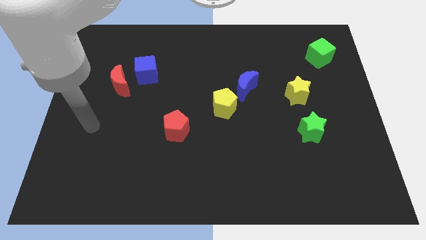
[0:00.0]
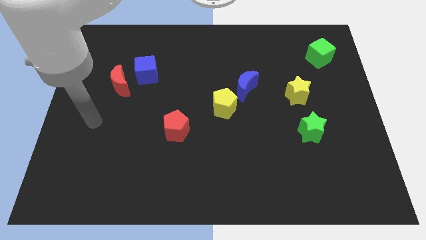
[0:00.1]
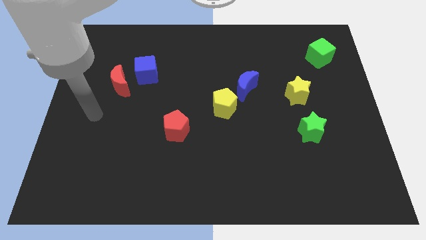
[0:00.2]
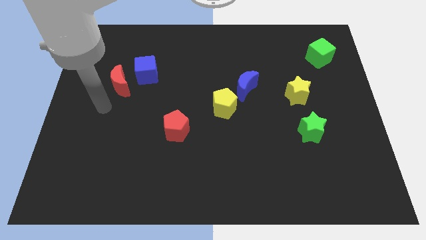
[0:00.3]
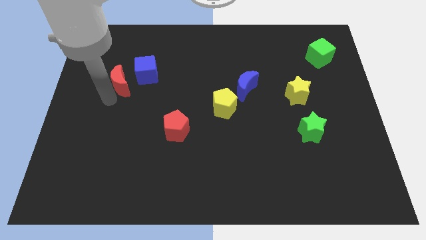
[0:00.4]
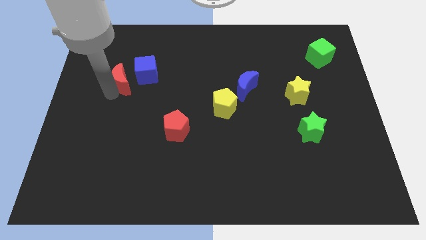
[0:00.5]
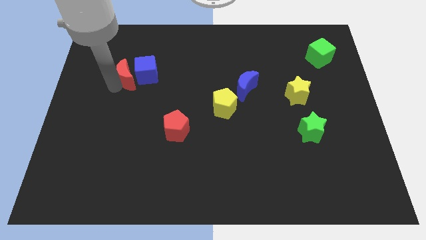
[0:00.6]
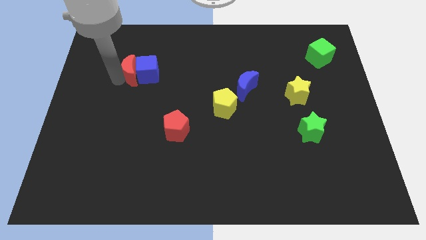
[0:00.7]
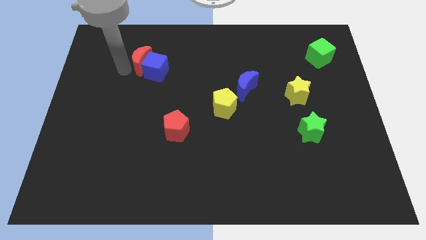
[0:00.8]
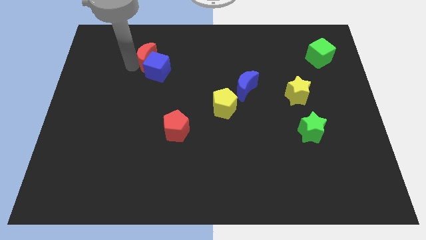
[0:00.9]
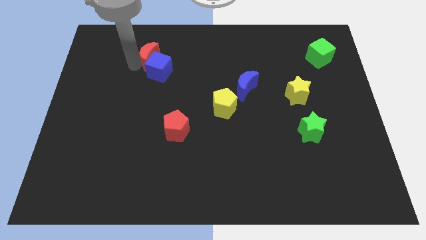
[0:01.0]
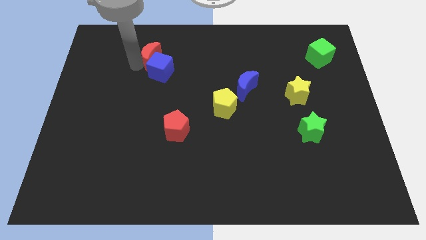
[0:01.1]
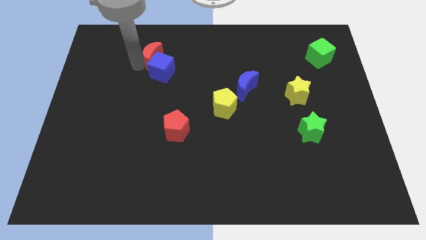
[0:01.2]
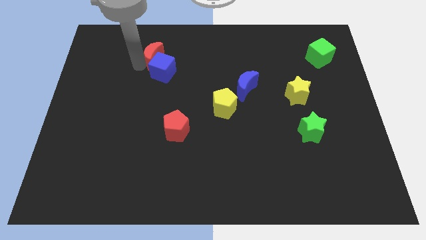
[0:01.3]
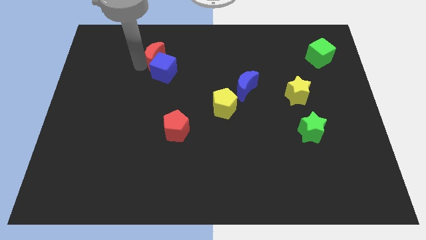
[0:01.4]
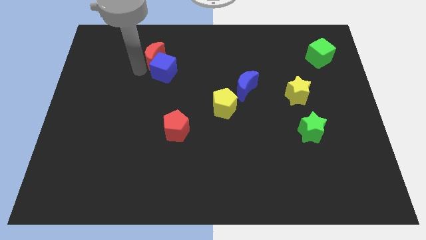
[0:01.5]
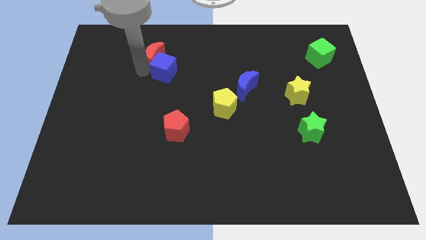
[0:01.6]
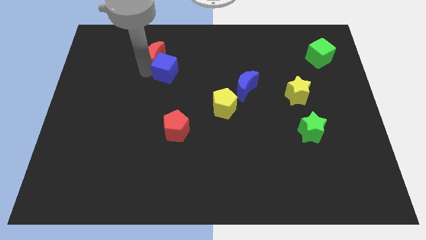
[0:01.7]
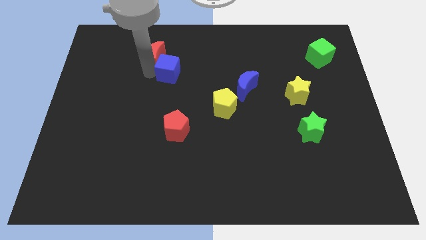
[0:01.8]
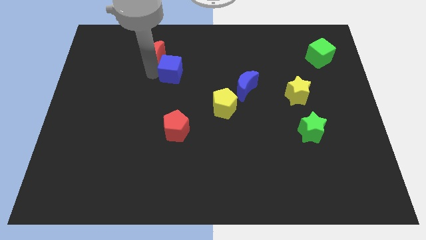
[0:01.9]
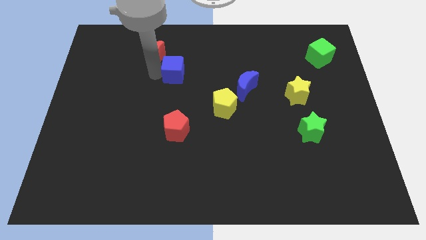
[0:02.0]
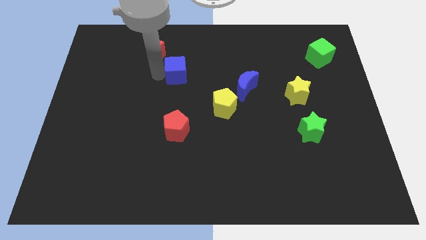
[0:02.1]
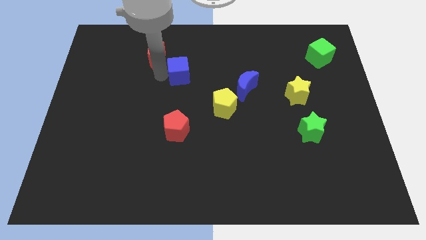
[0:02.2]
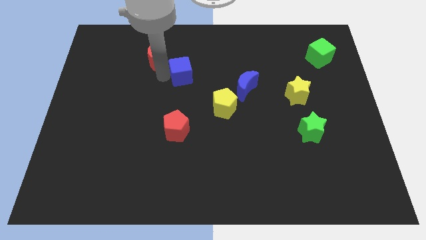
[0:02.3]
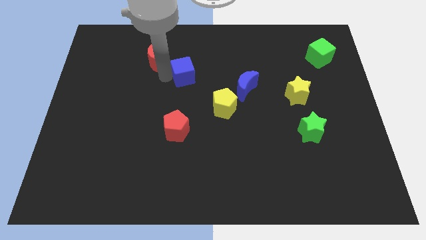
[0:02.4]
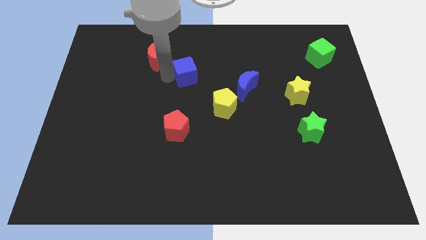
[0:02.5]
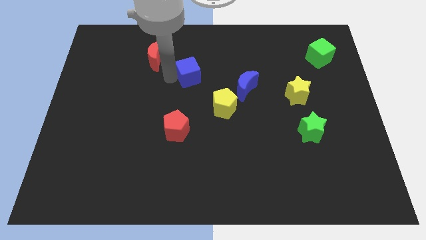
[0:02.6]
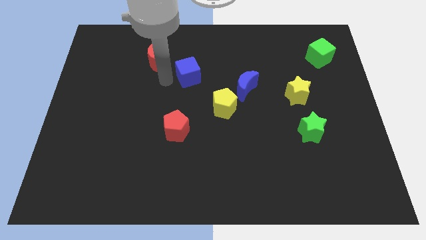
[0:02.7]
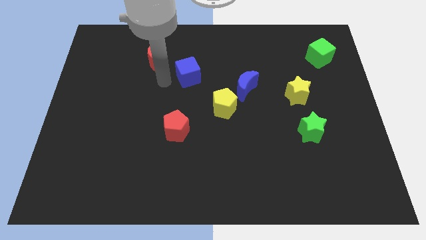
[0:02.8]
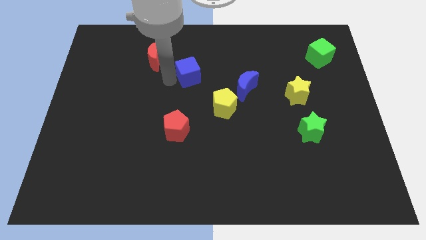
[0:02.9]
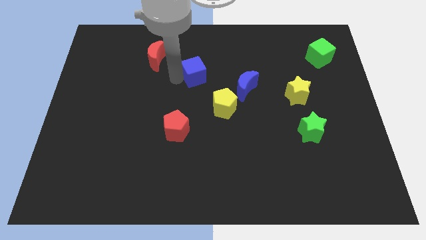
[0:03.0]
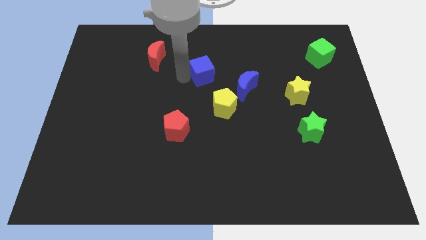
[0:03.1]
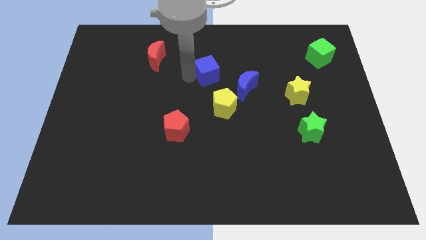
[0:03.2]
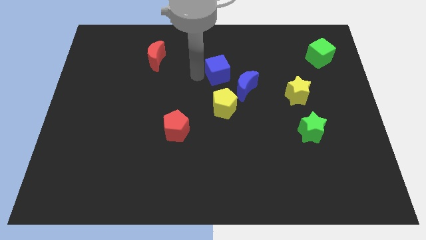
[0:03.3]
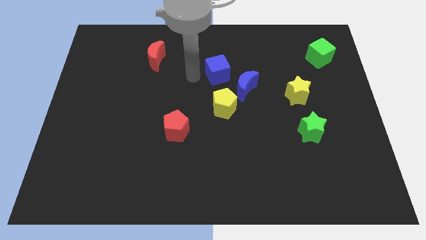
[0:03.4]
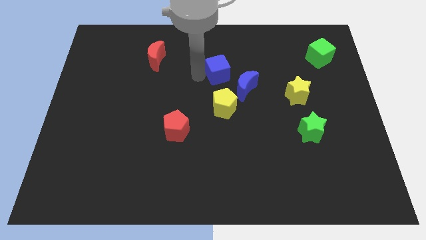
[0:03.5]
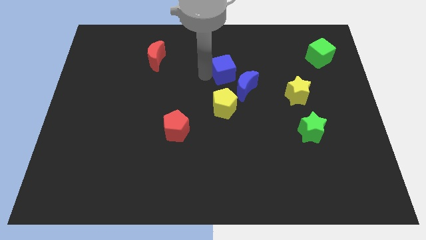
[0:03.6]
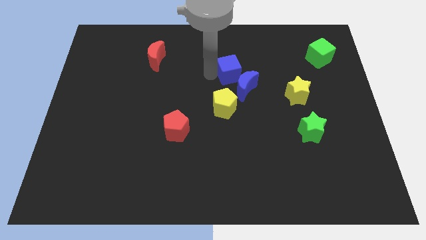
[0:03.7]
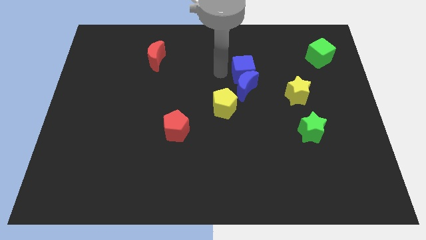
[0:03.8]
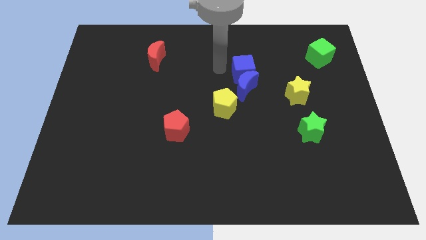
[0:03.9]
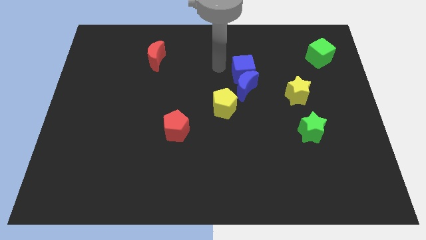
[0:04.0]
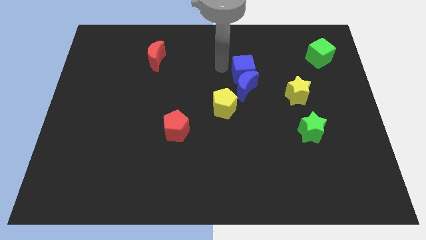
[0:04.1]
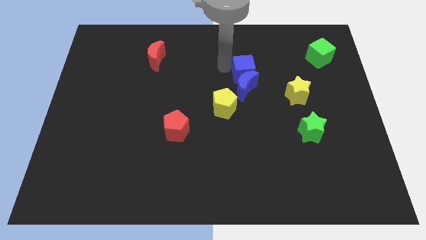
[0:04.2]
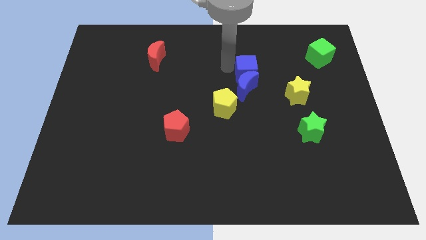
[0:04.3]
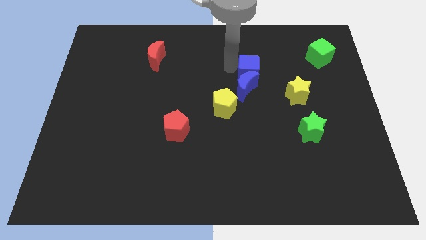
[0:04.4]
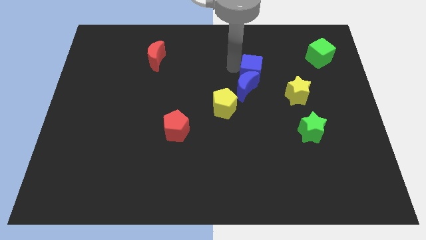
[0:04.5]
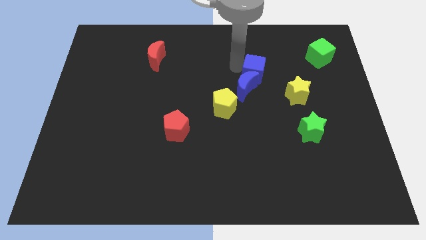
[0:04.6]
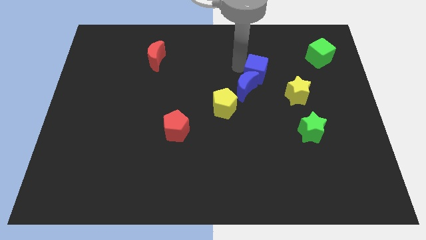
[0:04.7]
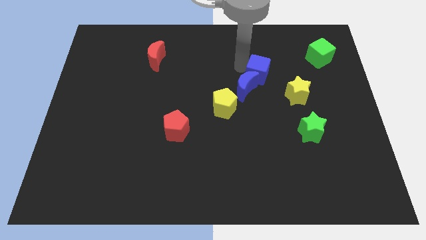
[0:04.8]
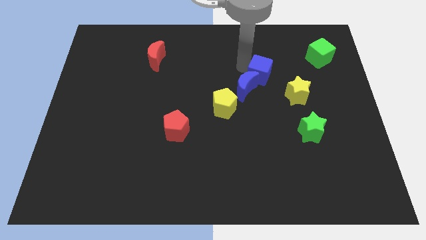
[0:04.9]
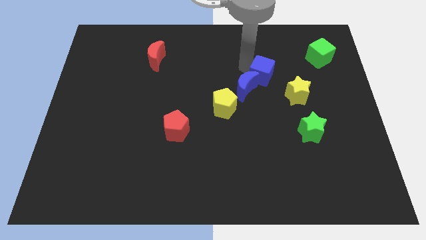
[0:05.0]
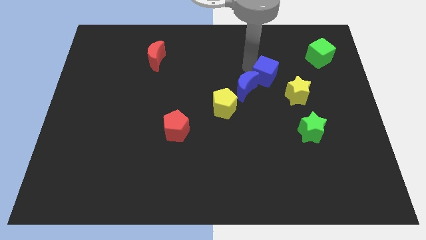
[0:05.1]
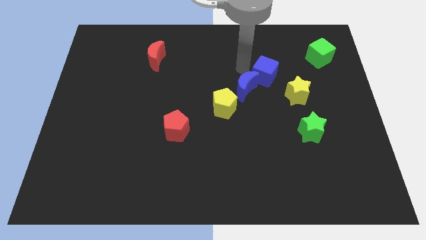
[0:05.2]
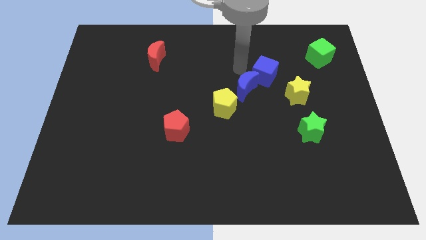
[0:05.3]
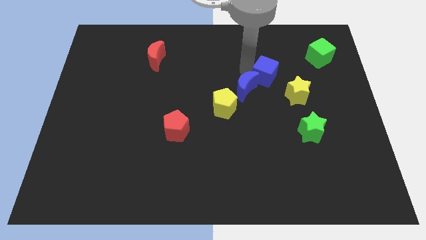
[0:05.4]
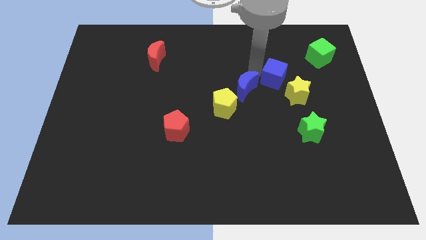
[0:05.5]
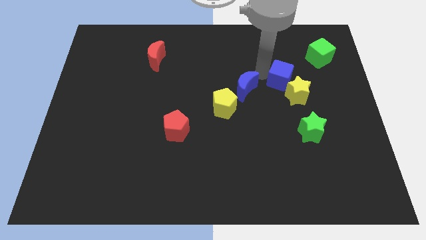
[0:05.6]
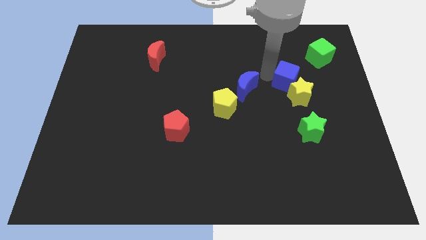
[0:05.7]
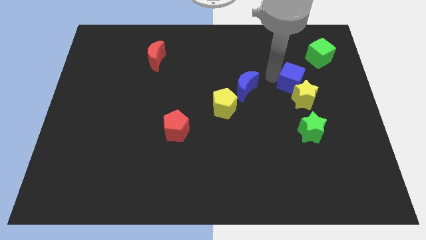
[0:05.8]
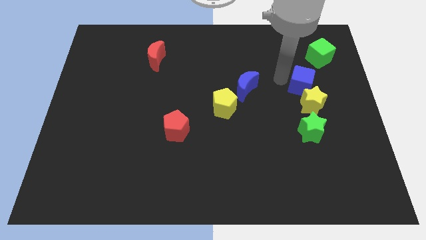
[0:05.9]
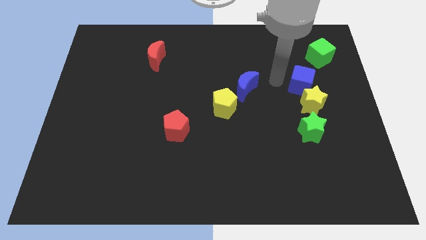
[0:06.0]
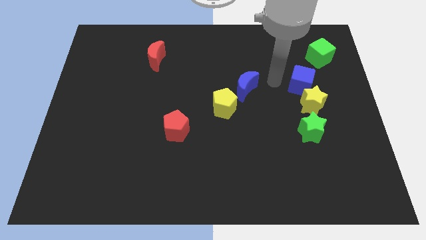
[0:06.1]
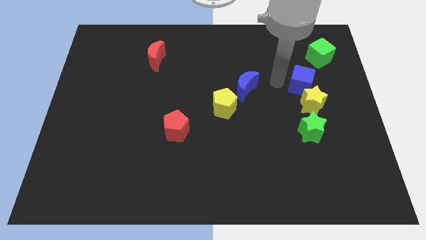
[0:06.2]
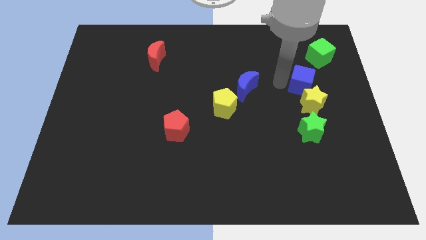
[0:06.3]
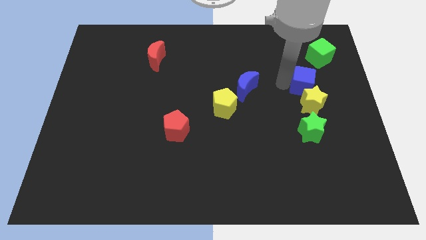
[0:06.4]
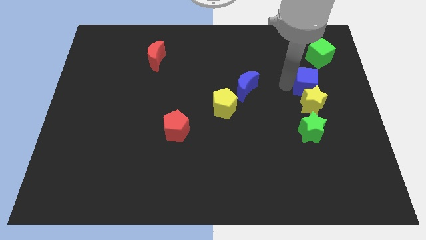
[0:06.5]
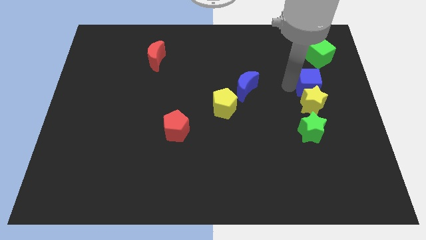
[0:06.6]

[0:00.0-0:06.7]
push the blue cube to the bottom of the green cube
